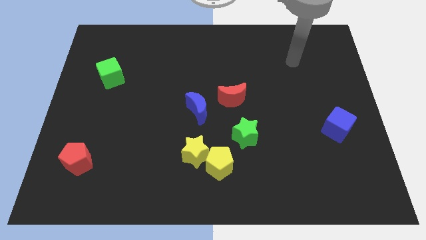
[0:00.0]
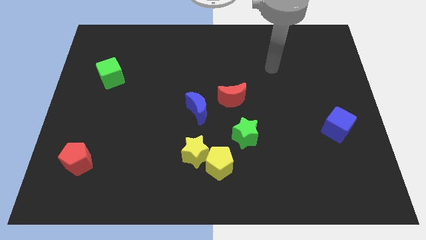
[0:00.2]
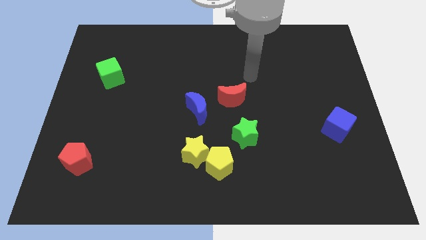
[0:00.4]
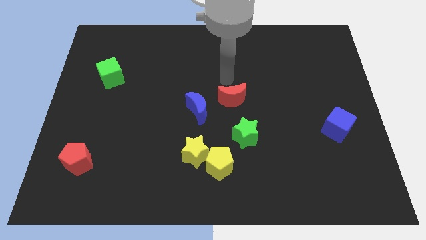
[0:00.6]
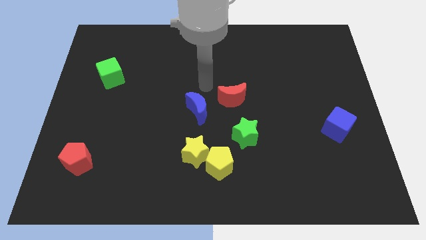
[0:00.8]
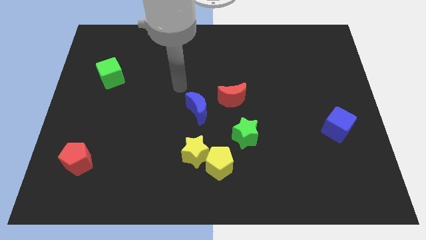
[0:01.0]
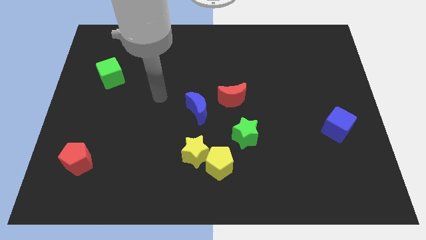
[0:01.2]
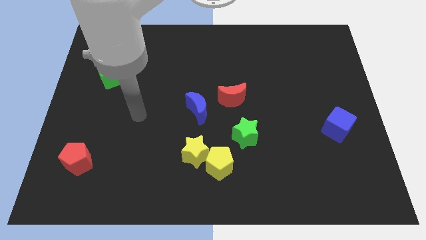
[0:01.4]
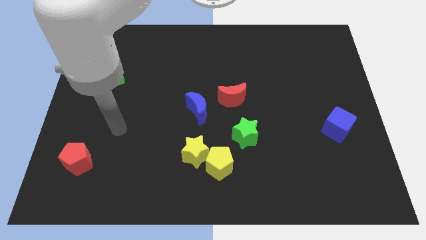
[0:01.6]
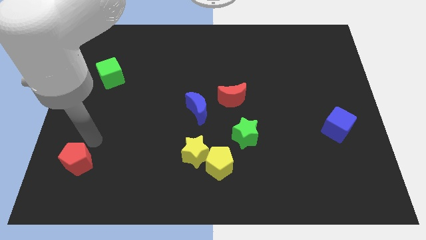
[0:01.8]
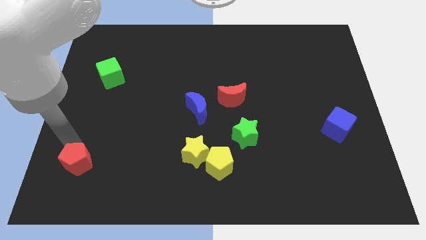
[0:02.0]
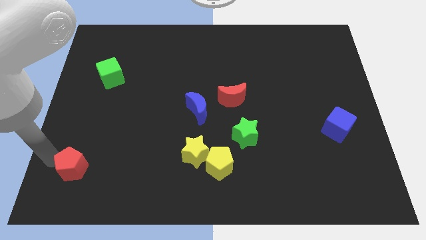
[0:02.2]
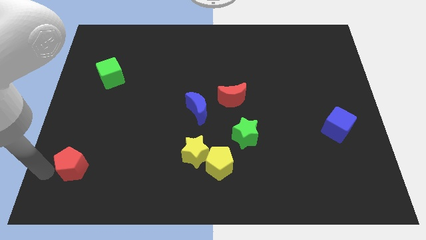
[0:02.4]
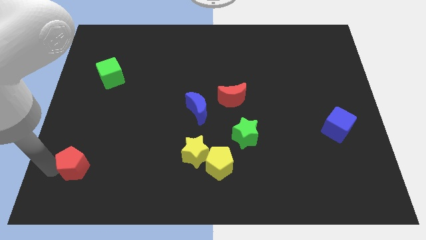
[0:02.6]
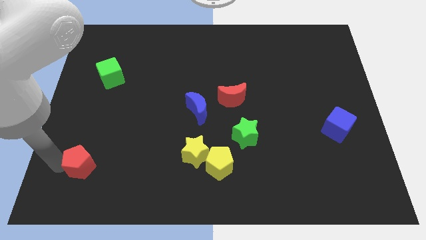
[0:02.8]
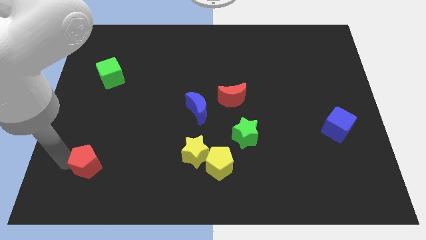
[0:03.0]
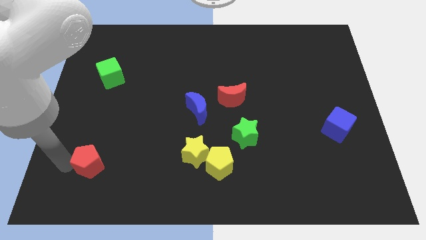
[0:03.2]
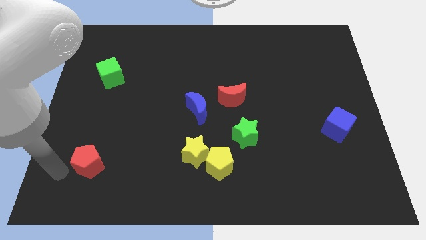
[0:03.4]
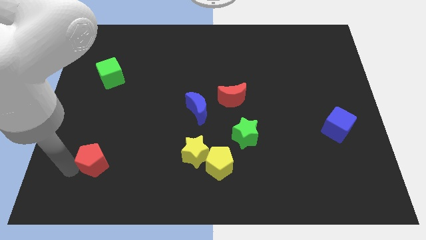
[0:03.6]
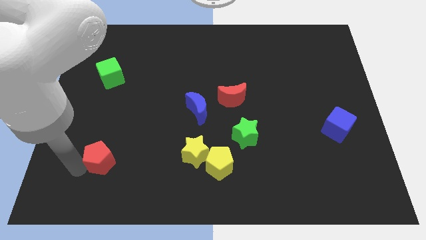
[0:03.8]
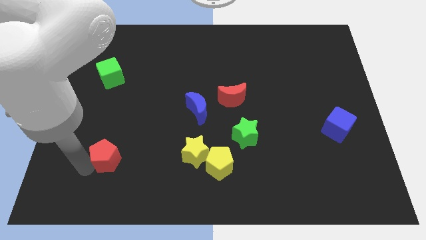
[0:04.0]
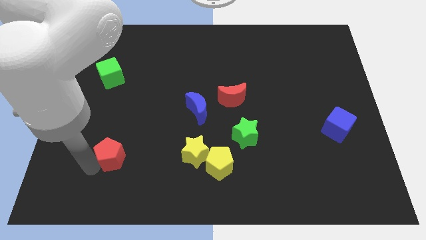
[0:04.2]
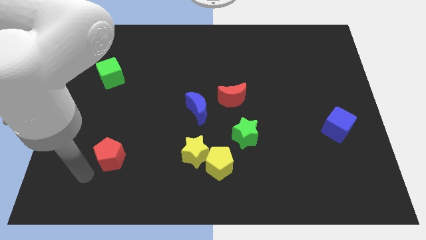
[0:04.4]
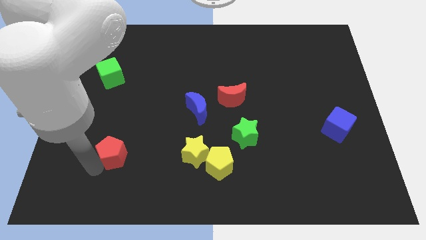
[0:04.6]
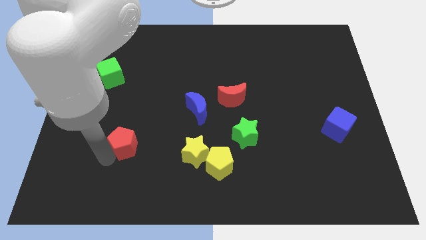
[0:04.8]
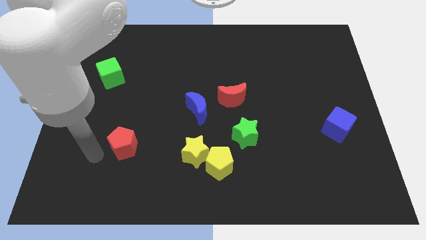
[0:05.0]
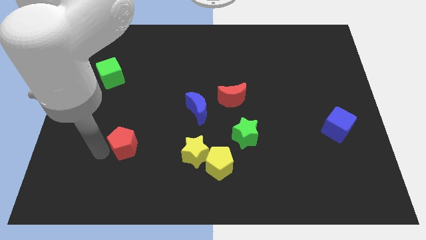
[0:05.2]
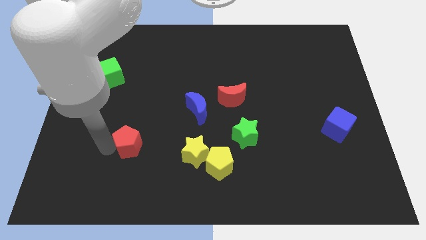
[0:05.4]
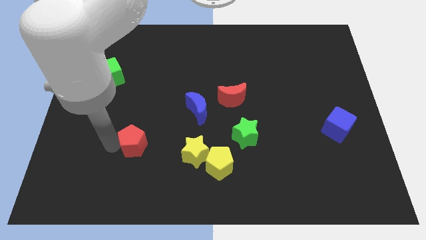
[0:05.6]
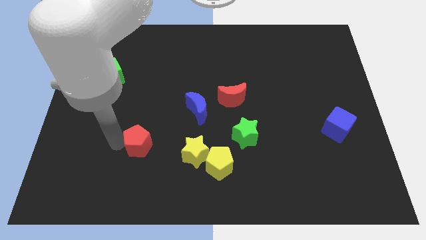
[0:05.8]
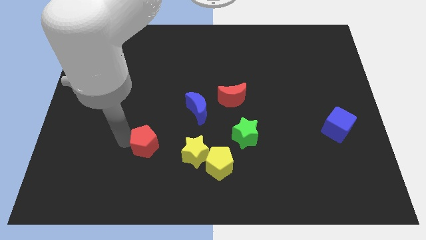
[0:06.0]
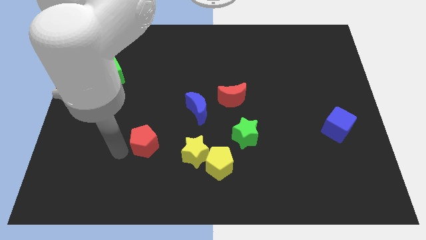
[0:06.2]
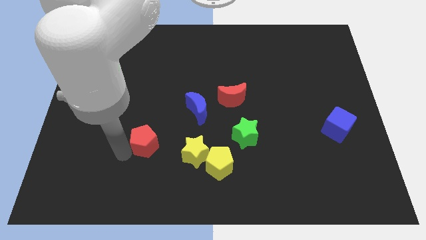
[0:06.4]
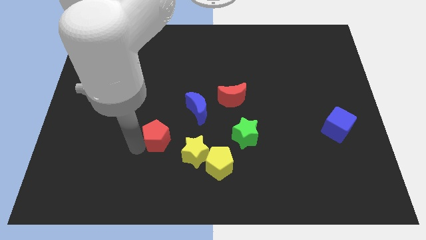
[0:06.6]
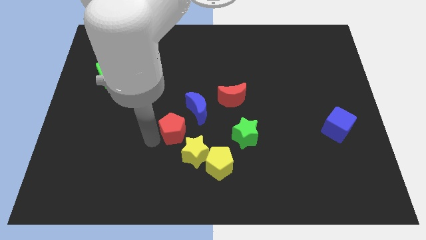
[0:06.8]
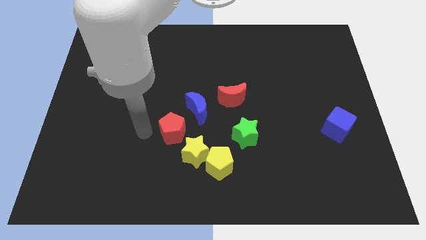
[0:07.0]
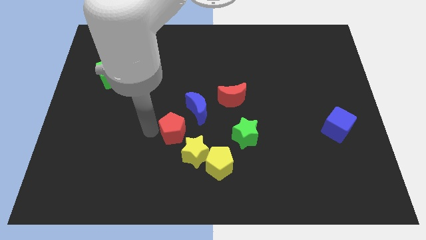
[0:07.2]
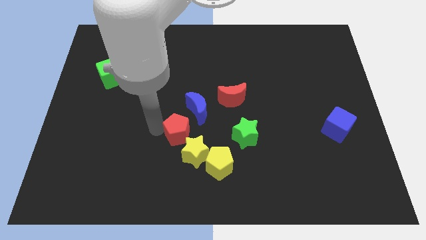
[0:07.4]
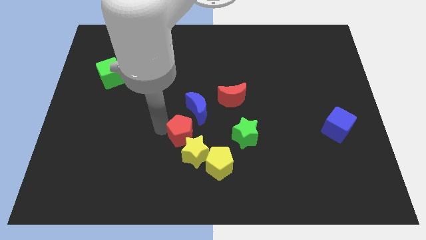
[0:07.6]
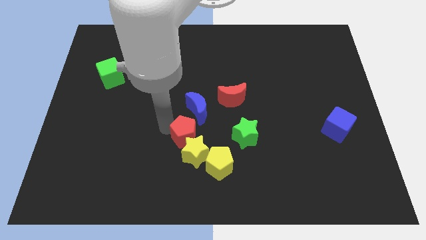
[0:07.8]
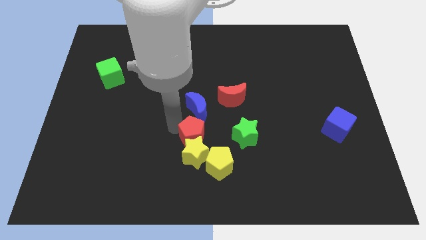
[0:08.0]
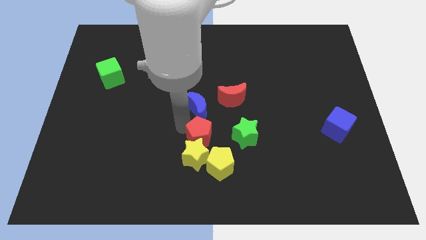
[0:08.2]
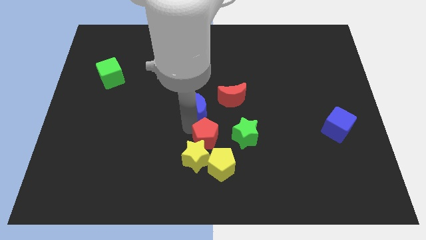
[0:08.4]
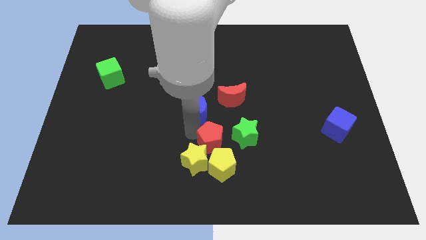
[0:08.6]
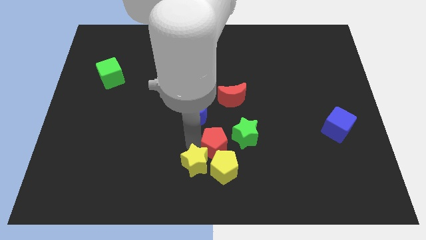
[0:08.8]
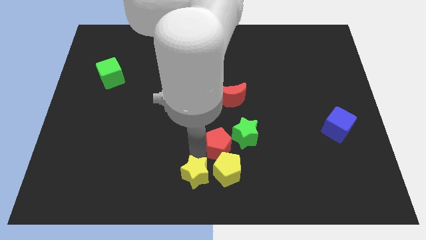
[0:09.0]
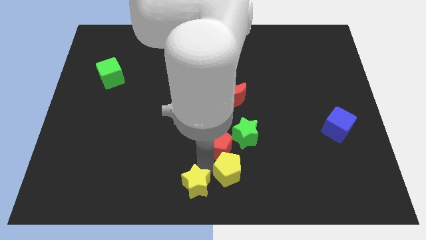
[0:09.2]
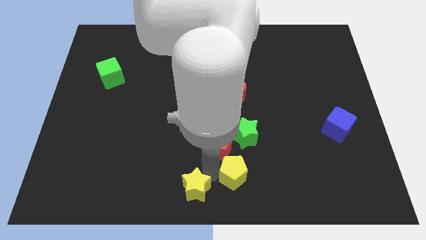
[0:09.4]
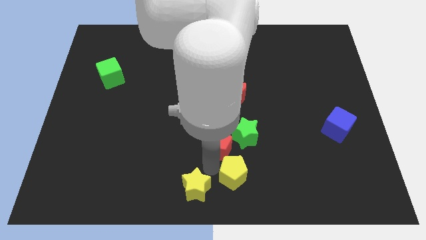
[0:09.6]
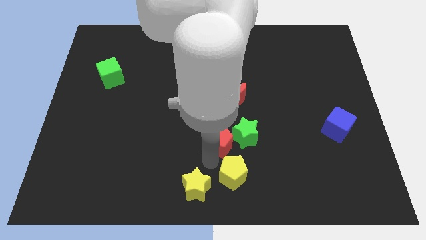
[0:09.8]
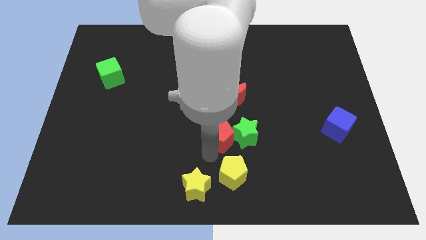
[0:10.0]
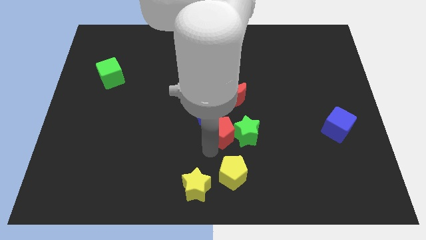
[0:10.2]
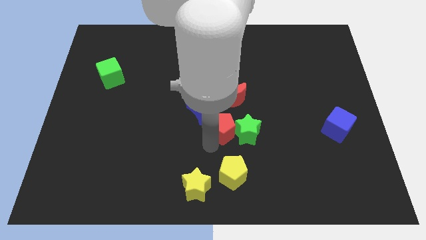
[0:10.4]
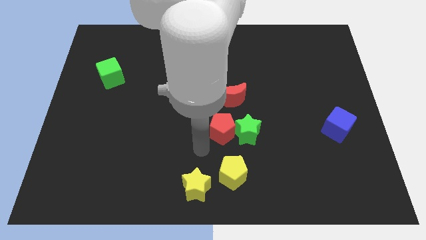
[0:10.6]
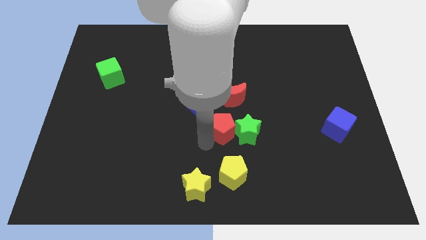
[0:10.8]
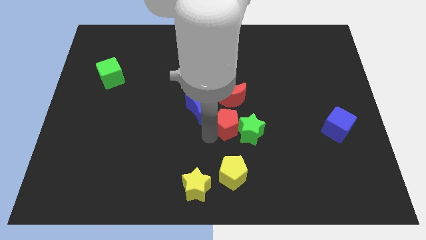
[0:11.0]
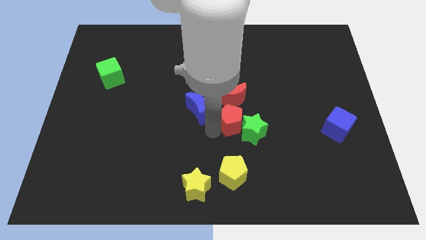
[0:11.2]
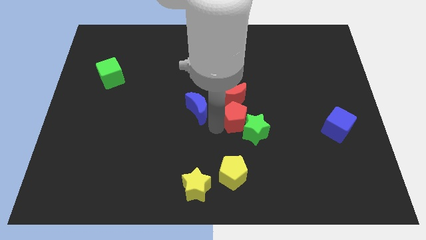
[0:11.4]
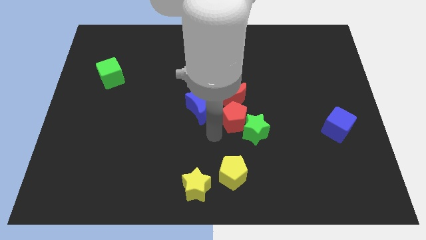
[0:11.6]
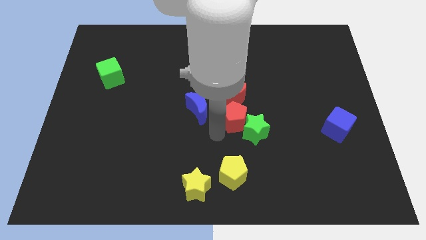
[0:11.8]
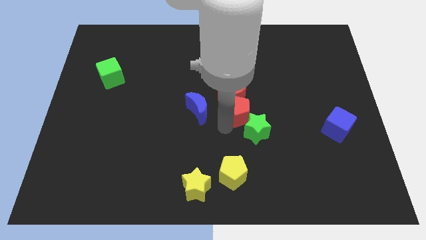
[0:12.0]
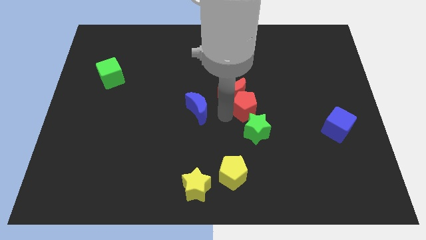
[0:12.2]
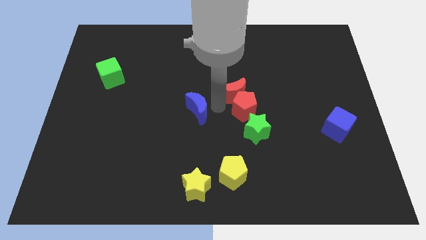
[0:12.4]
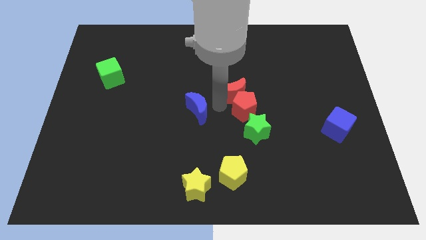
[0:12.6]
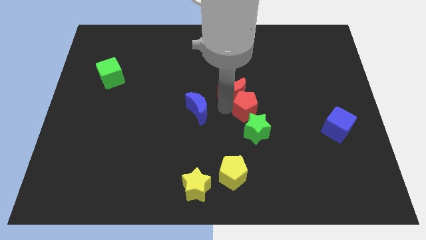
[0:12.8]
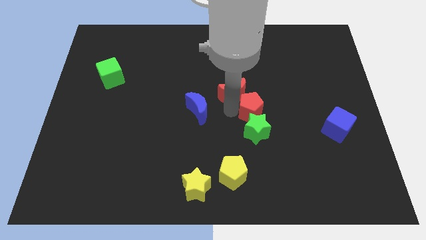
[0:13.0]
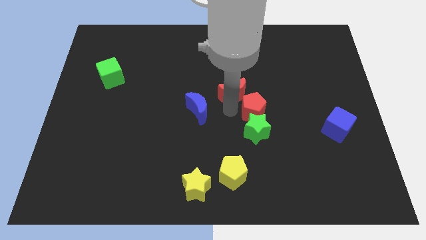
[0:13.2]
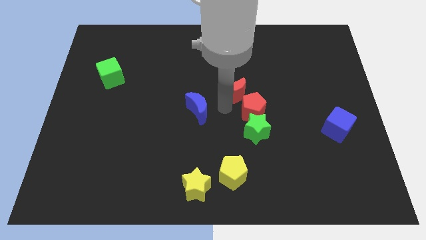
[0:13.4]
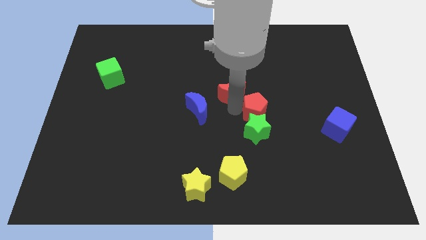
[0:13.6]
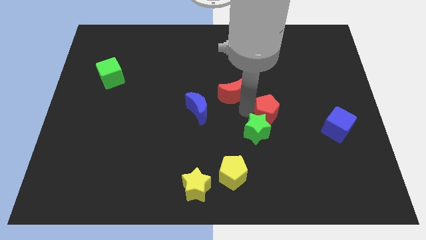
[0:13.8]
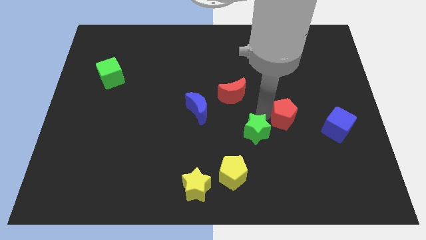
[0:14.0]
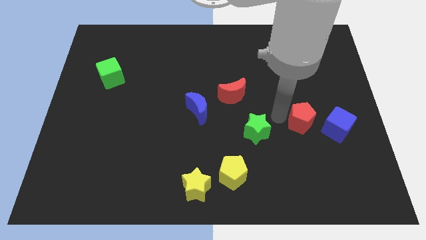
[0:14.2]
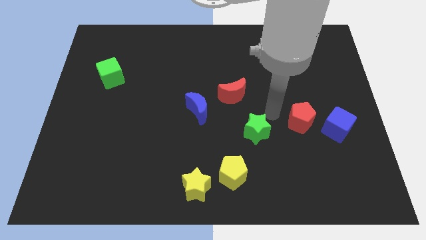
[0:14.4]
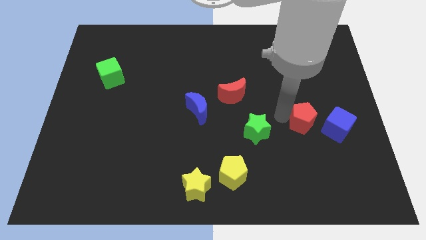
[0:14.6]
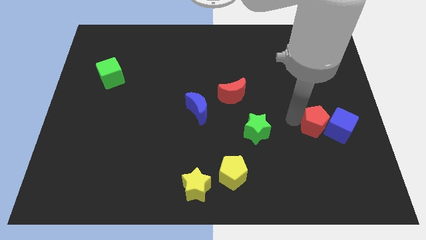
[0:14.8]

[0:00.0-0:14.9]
put the red pentagon to the blue cube
